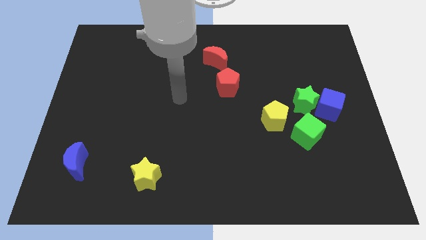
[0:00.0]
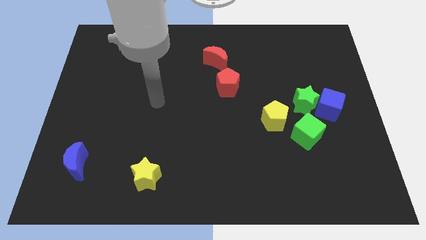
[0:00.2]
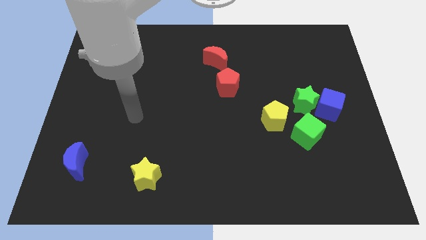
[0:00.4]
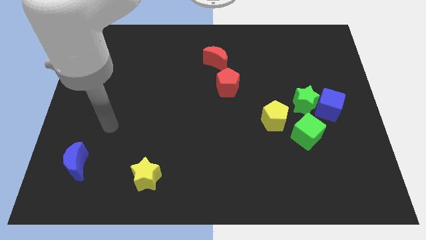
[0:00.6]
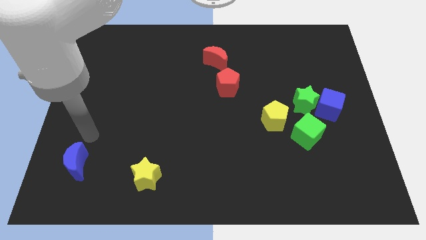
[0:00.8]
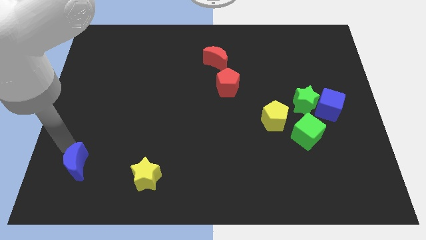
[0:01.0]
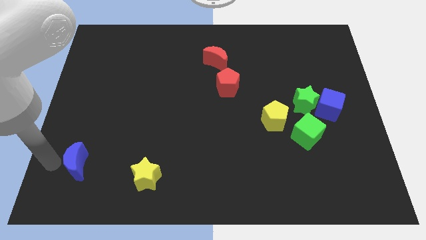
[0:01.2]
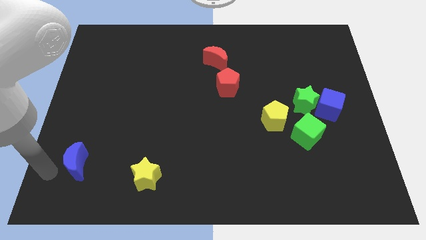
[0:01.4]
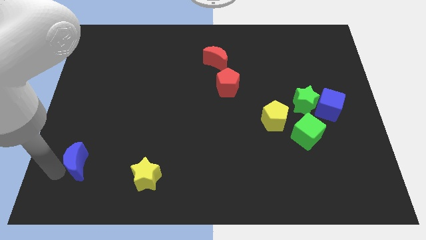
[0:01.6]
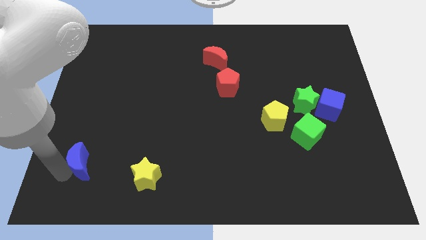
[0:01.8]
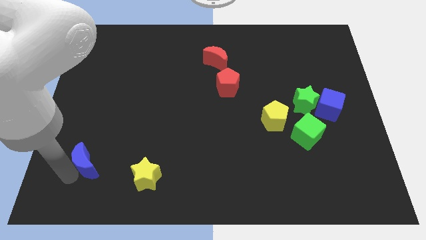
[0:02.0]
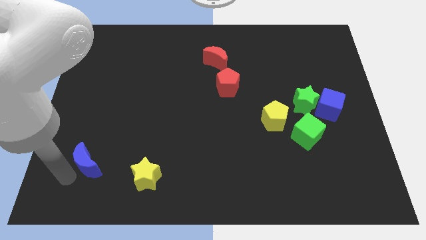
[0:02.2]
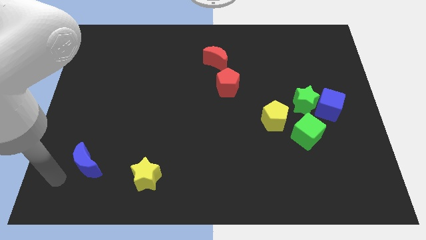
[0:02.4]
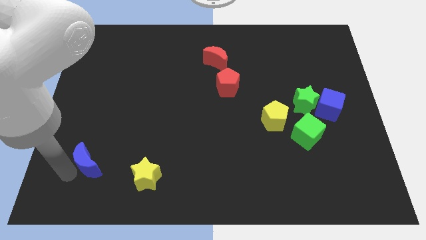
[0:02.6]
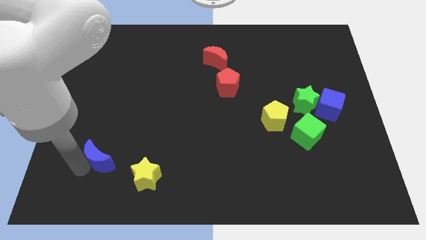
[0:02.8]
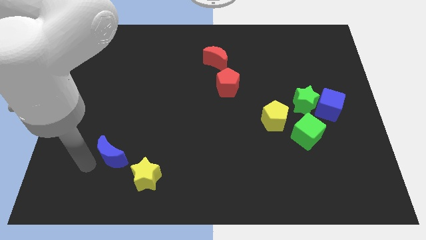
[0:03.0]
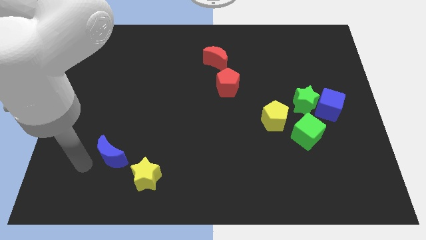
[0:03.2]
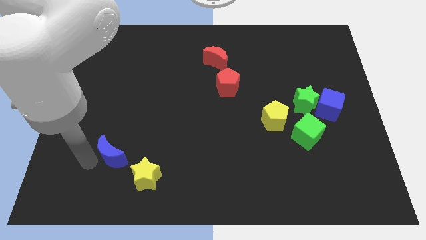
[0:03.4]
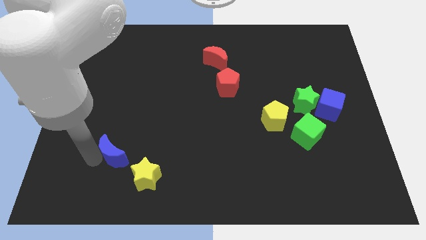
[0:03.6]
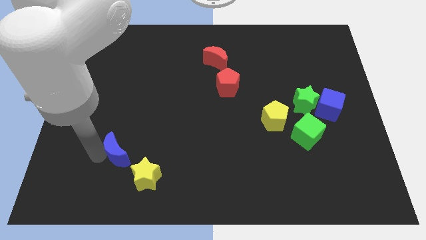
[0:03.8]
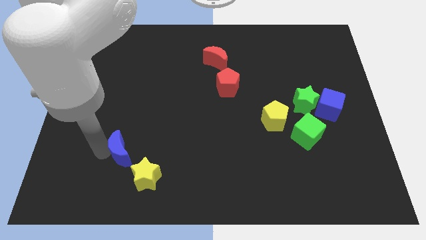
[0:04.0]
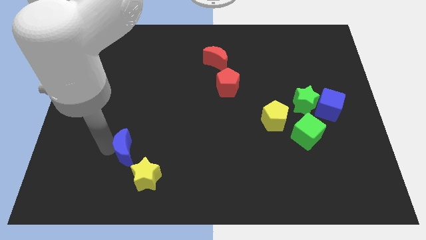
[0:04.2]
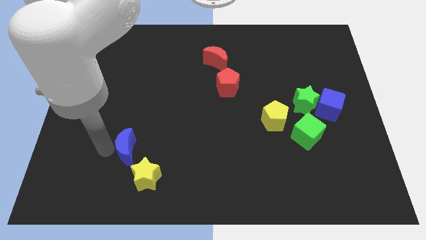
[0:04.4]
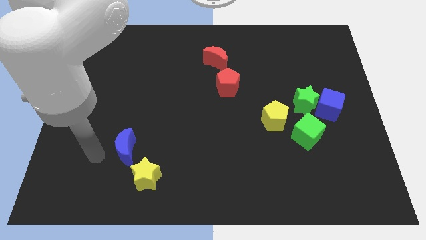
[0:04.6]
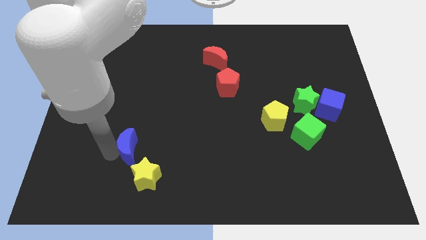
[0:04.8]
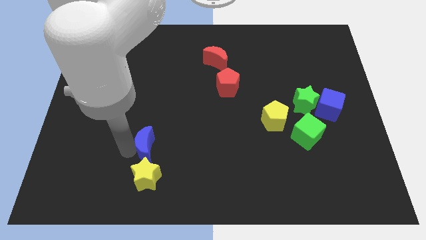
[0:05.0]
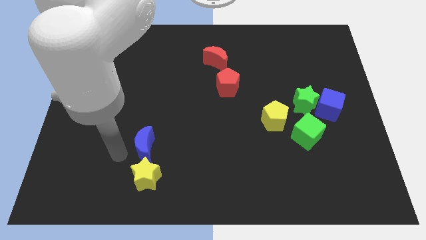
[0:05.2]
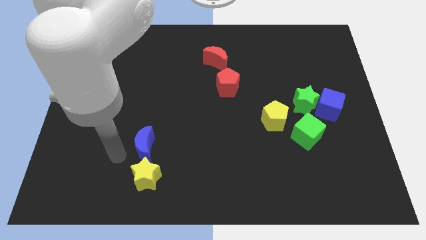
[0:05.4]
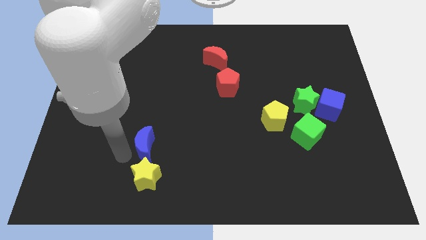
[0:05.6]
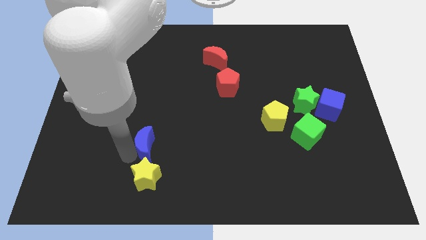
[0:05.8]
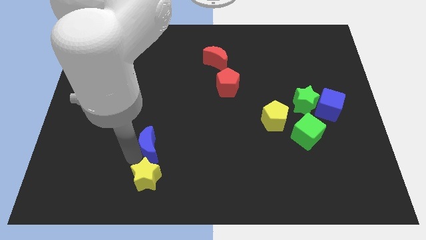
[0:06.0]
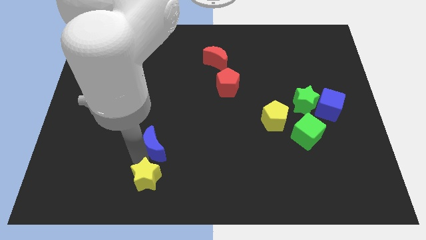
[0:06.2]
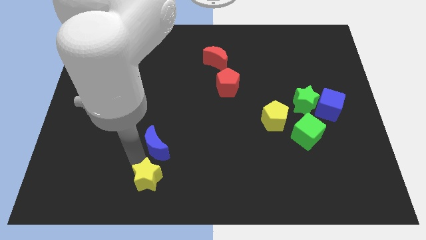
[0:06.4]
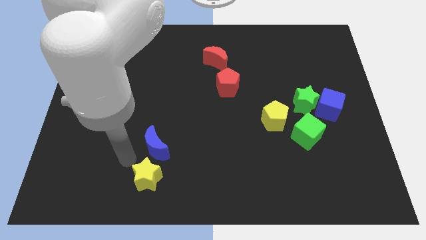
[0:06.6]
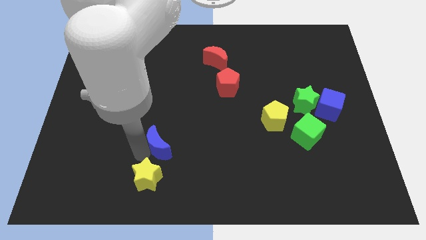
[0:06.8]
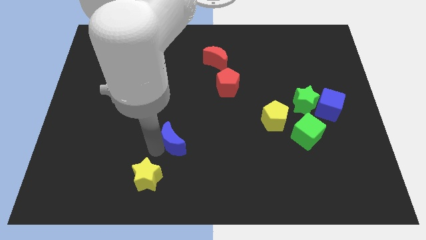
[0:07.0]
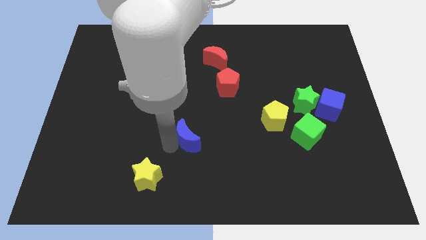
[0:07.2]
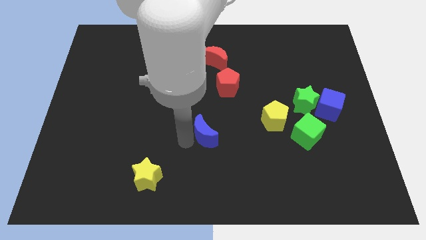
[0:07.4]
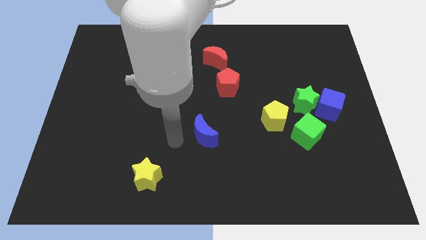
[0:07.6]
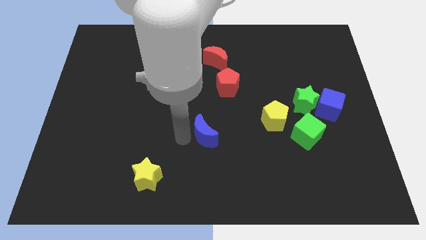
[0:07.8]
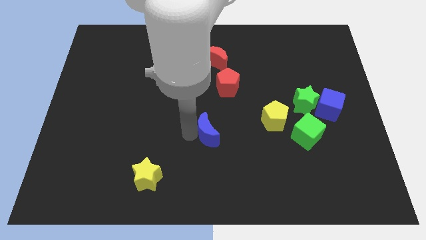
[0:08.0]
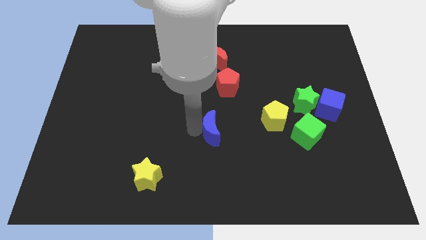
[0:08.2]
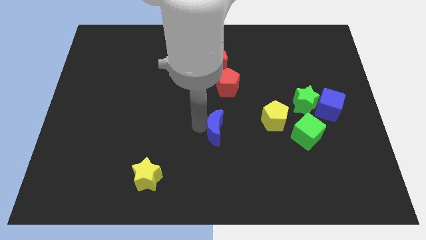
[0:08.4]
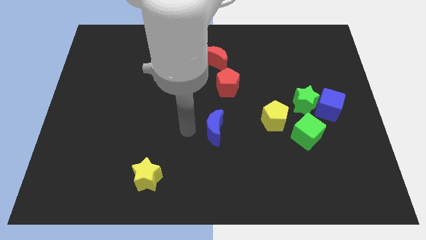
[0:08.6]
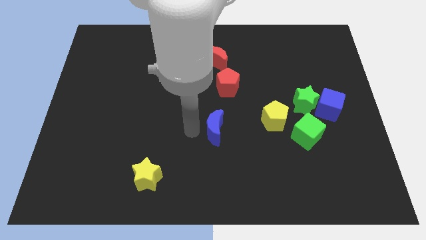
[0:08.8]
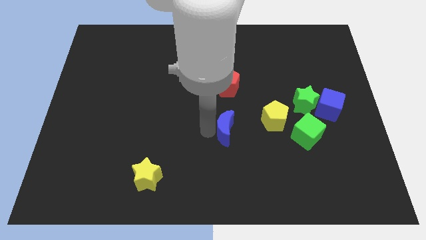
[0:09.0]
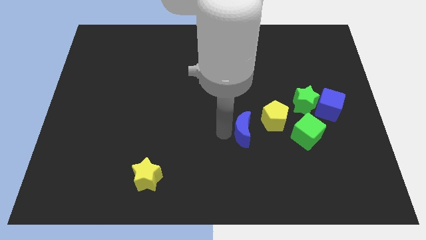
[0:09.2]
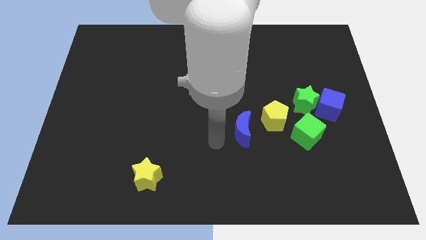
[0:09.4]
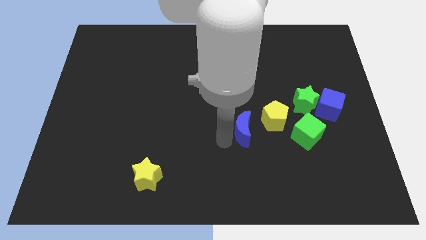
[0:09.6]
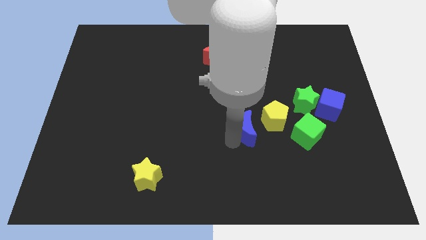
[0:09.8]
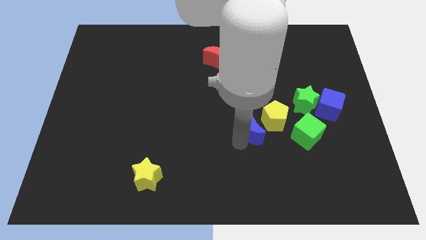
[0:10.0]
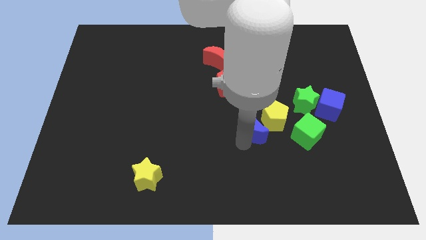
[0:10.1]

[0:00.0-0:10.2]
push the blue moon close to the yellow pentagon

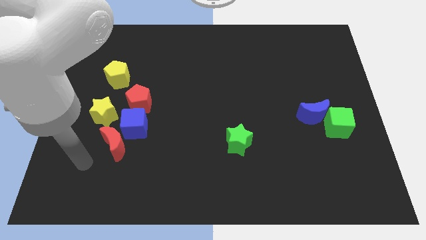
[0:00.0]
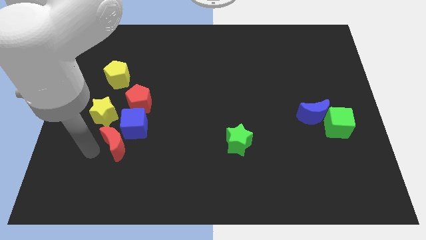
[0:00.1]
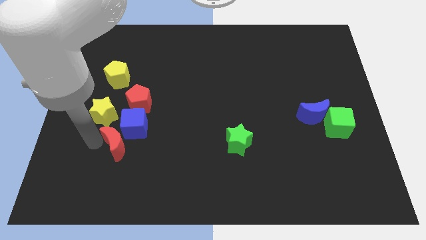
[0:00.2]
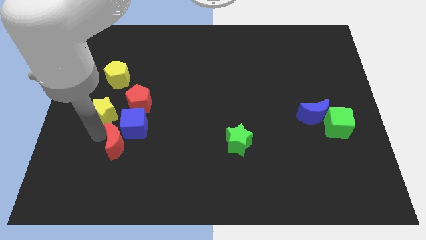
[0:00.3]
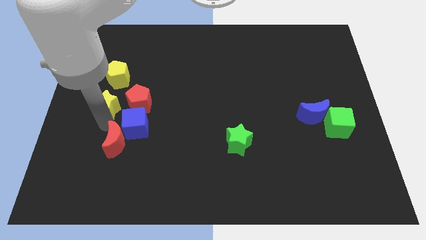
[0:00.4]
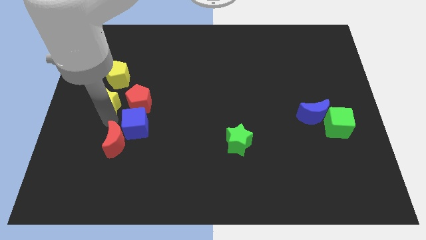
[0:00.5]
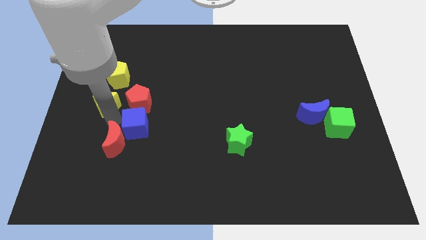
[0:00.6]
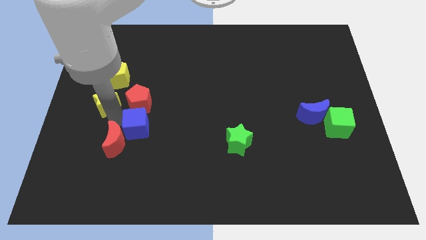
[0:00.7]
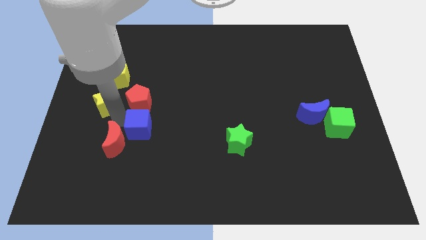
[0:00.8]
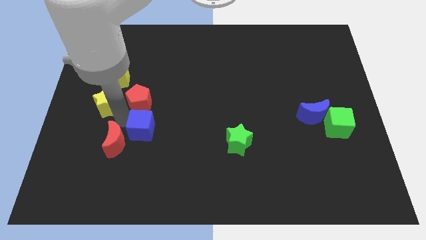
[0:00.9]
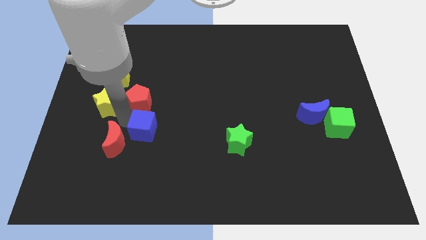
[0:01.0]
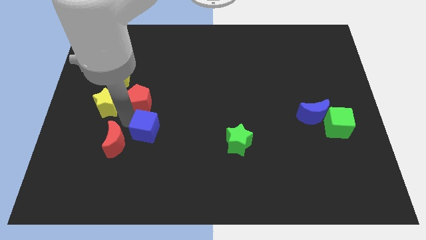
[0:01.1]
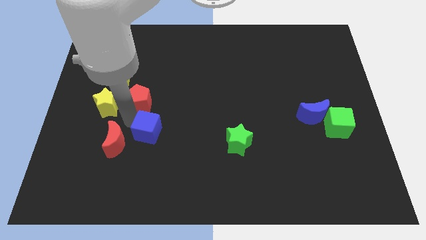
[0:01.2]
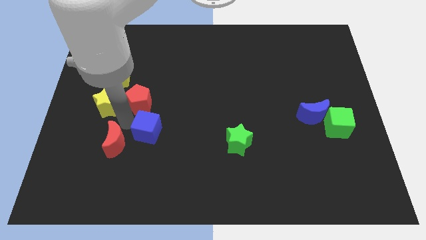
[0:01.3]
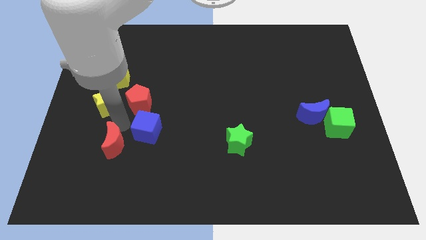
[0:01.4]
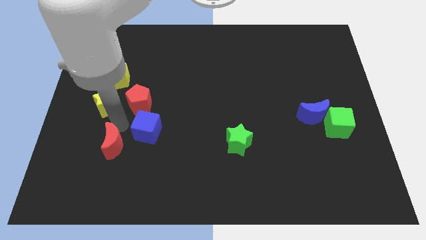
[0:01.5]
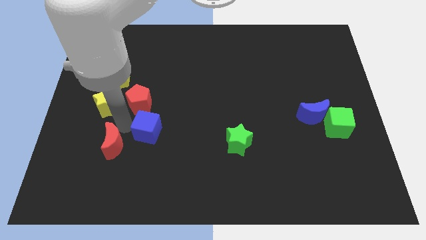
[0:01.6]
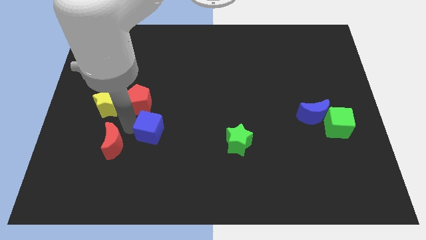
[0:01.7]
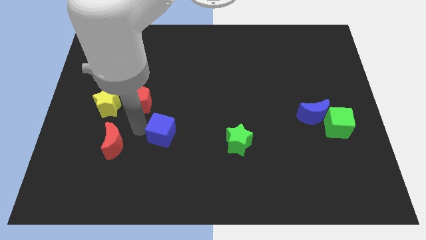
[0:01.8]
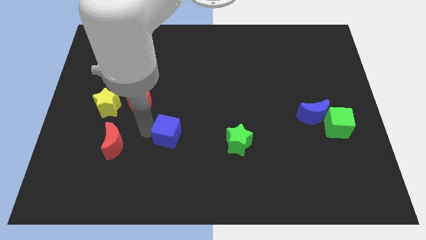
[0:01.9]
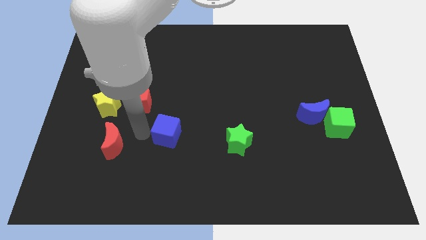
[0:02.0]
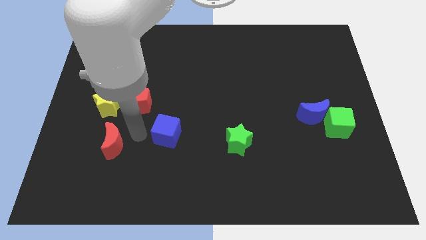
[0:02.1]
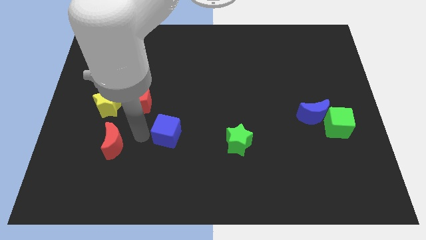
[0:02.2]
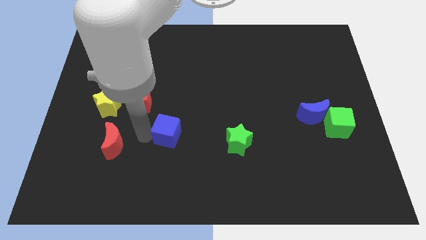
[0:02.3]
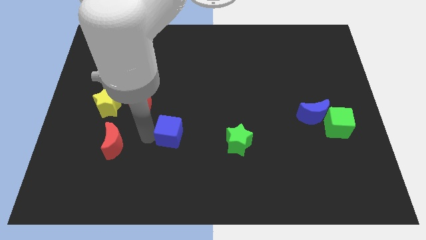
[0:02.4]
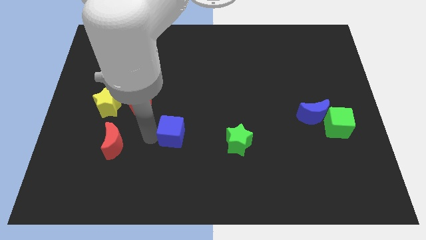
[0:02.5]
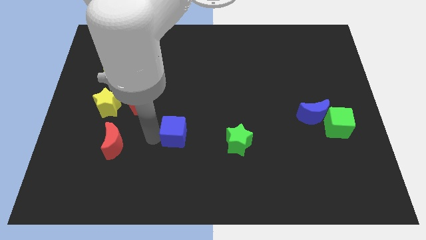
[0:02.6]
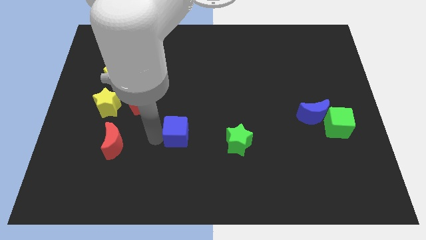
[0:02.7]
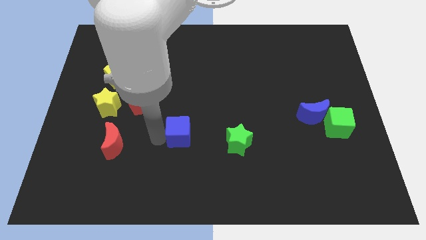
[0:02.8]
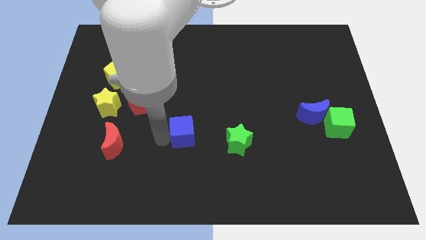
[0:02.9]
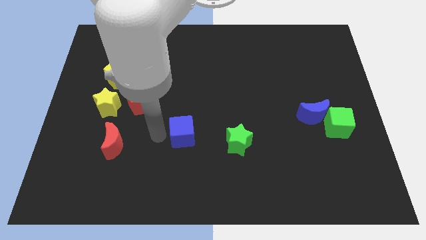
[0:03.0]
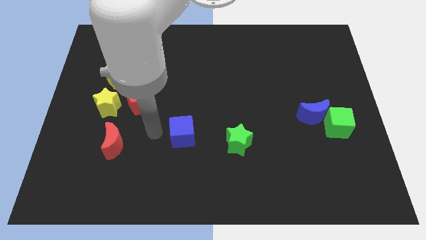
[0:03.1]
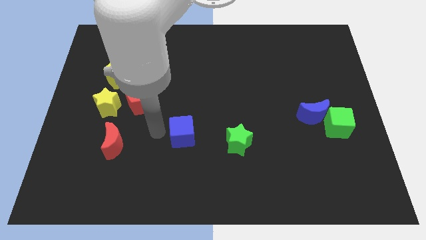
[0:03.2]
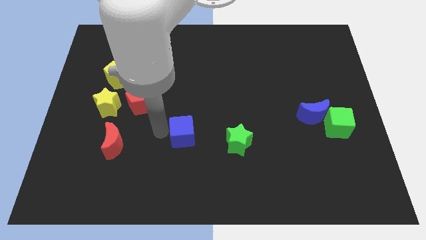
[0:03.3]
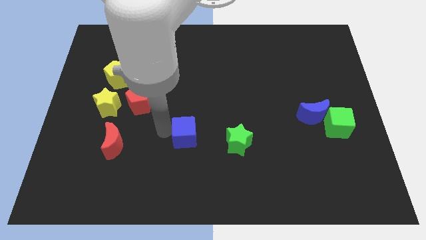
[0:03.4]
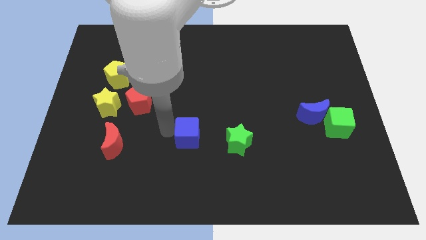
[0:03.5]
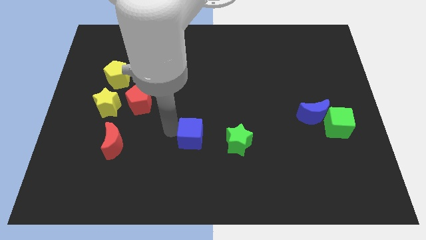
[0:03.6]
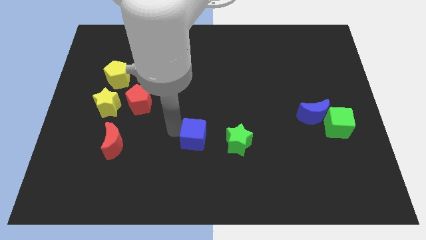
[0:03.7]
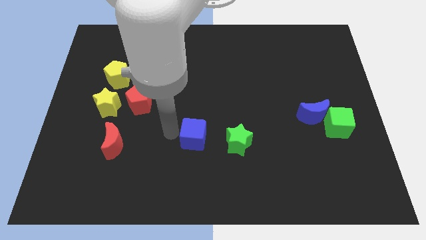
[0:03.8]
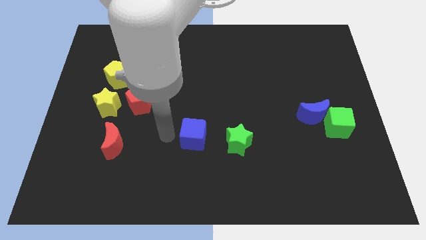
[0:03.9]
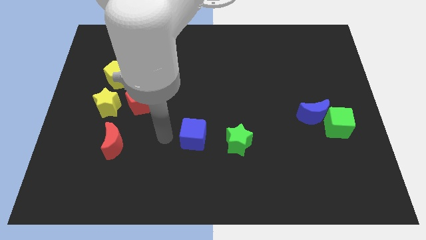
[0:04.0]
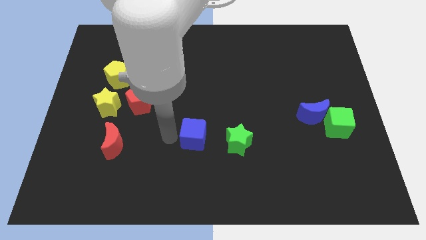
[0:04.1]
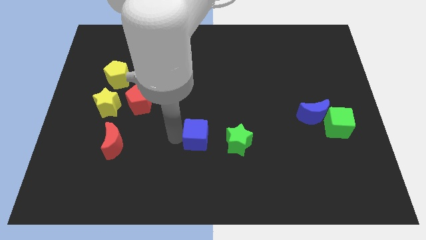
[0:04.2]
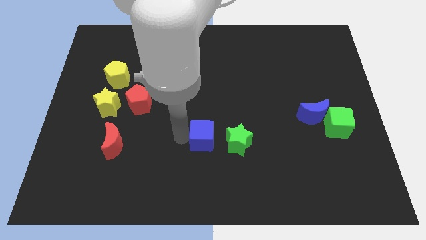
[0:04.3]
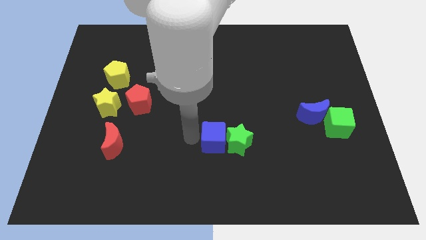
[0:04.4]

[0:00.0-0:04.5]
move the blue cube close to the green star
